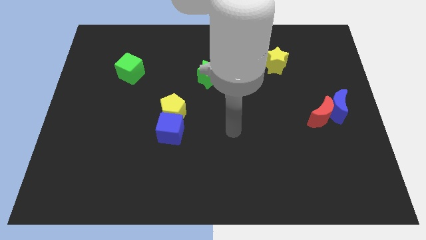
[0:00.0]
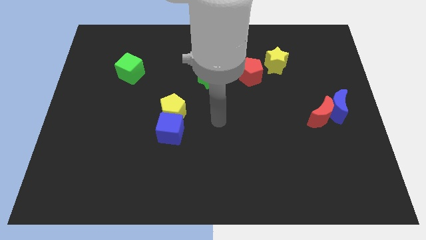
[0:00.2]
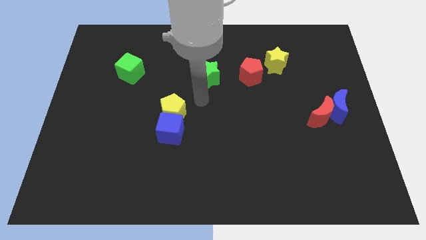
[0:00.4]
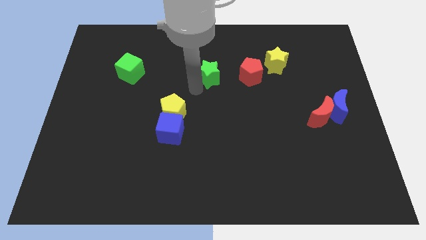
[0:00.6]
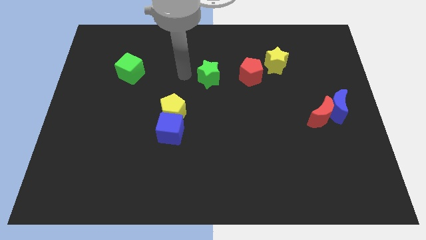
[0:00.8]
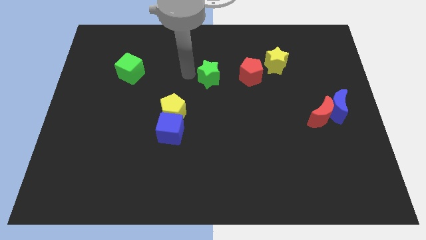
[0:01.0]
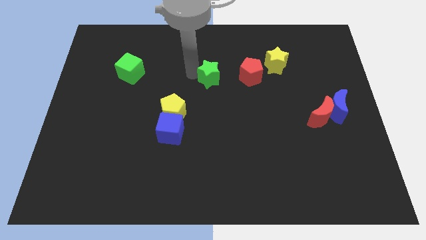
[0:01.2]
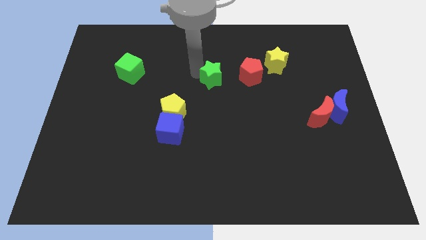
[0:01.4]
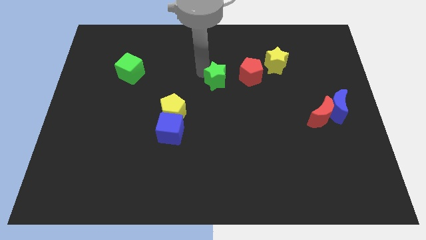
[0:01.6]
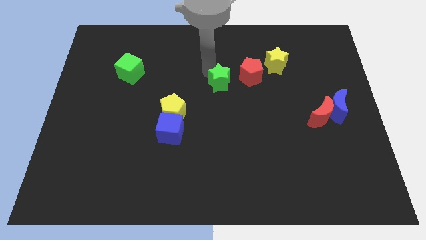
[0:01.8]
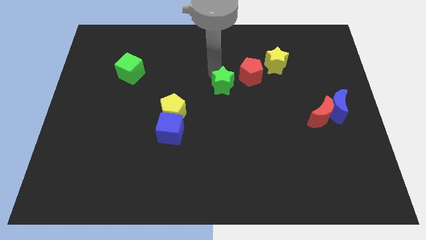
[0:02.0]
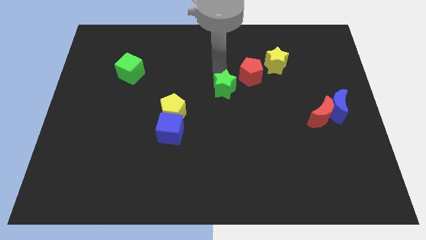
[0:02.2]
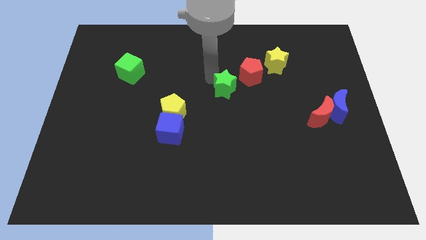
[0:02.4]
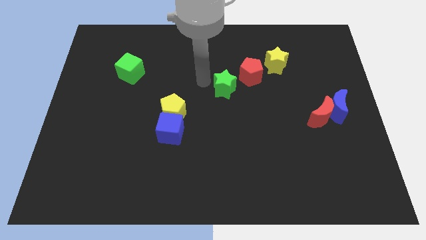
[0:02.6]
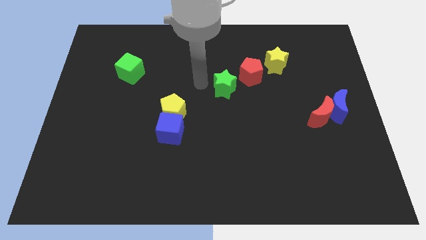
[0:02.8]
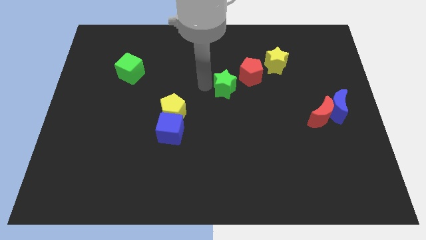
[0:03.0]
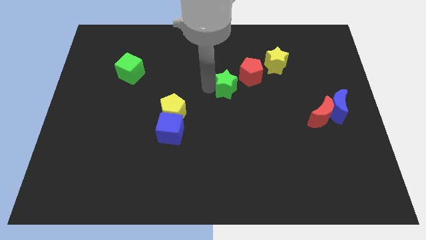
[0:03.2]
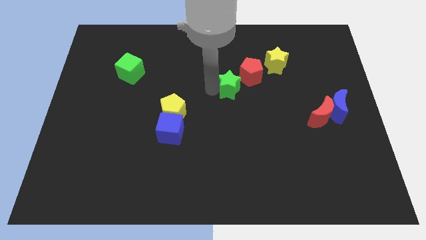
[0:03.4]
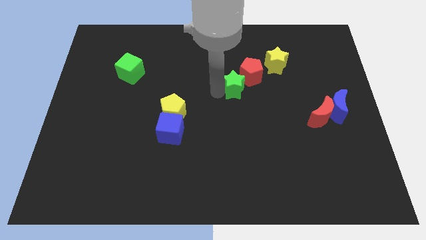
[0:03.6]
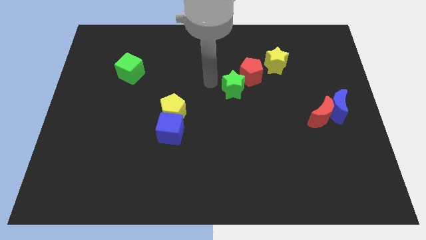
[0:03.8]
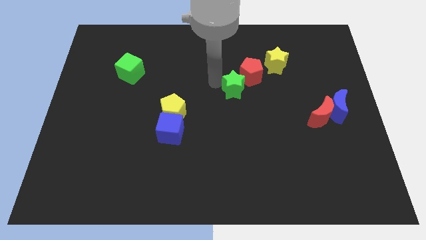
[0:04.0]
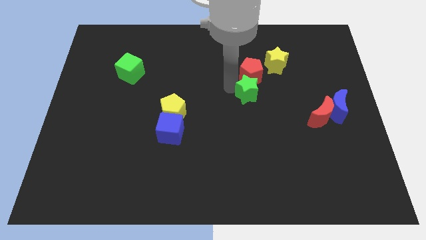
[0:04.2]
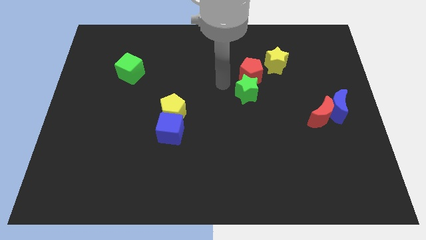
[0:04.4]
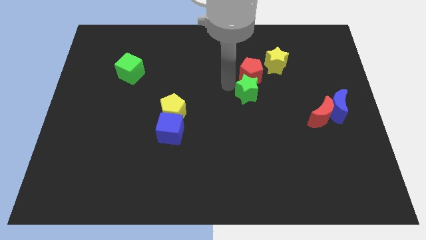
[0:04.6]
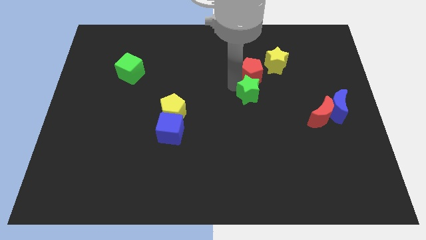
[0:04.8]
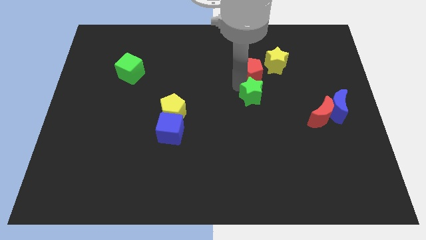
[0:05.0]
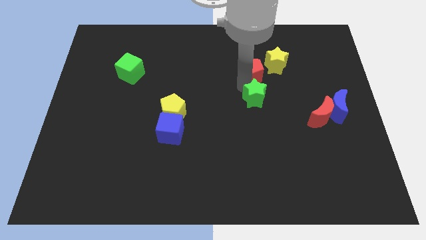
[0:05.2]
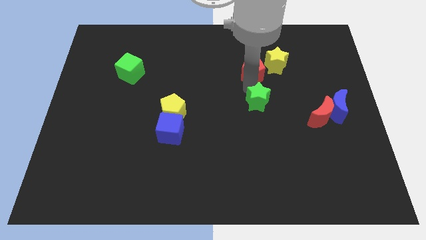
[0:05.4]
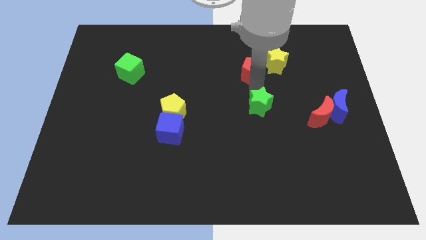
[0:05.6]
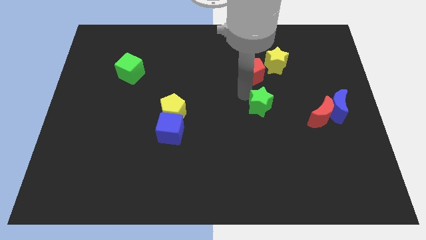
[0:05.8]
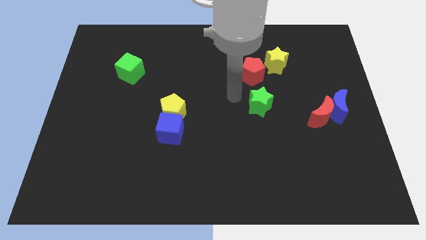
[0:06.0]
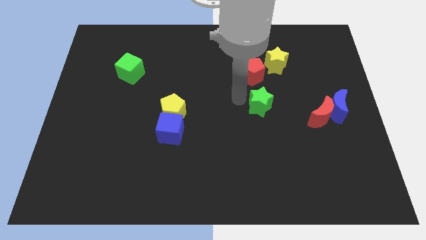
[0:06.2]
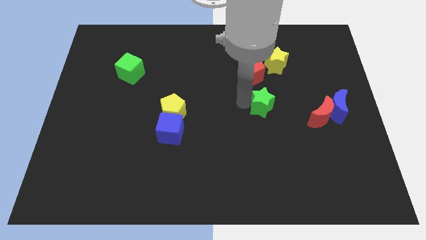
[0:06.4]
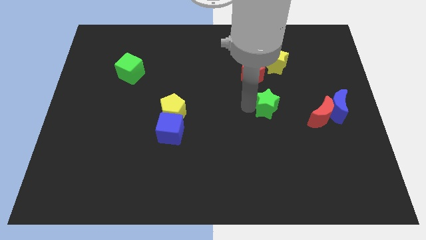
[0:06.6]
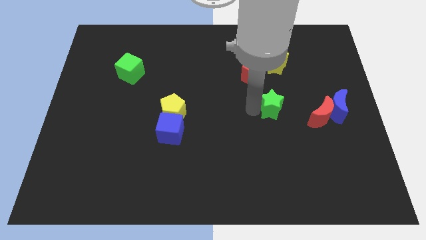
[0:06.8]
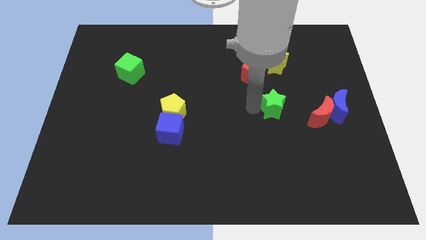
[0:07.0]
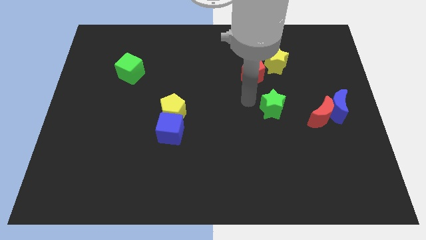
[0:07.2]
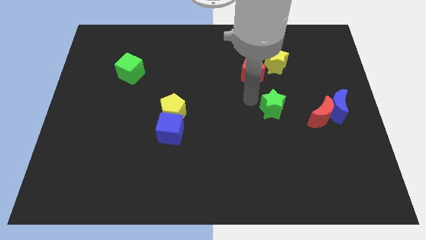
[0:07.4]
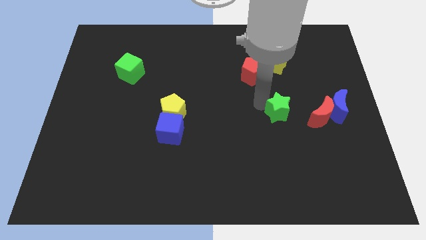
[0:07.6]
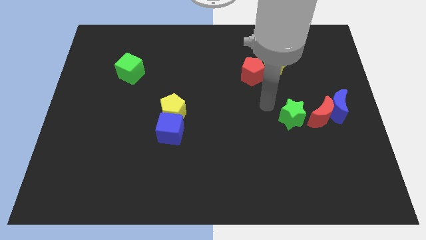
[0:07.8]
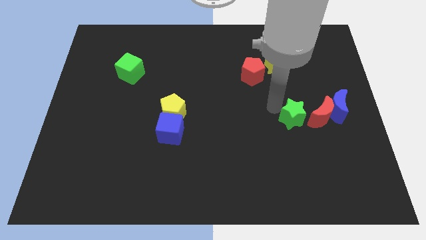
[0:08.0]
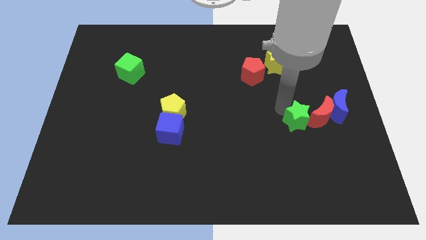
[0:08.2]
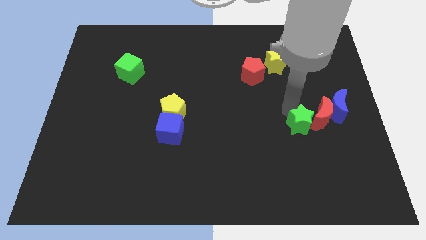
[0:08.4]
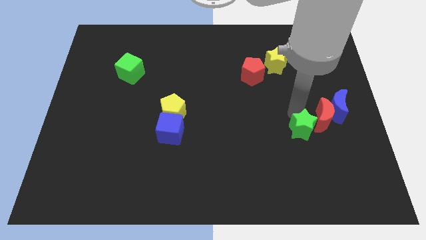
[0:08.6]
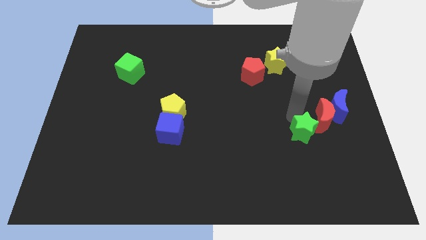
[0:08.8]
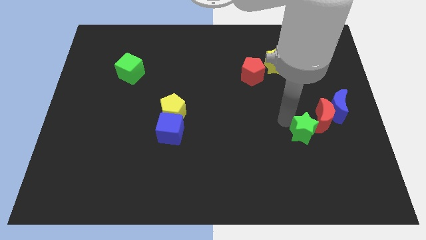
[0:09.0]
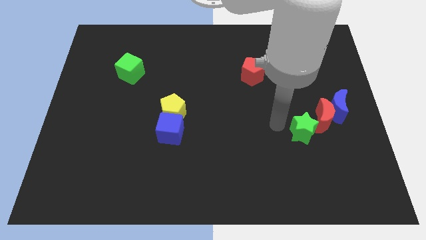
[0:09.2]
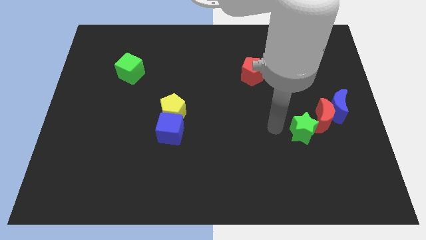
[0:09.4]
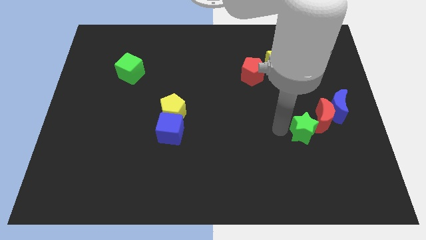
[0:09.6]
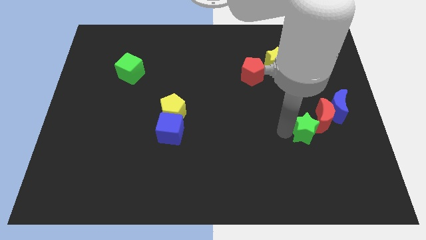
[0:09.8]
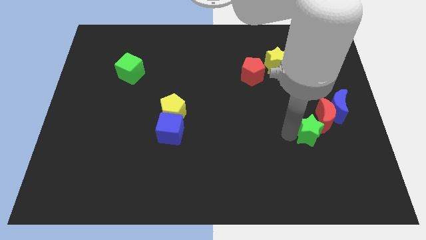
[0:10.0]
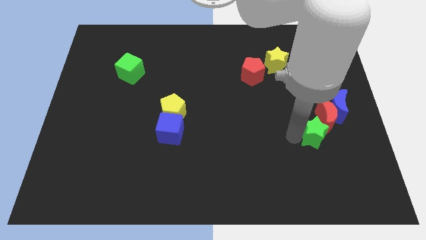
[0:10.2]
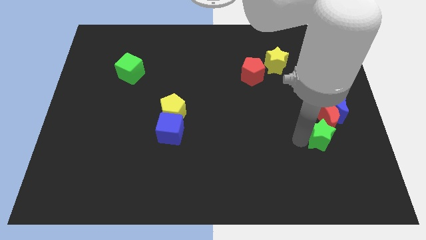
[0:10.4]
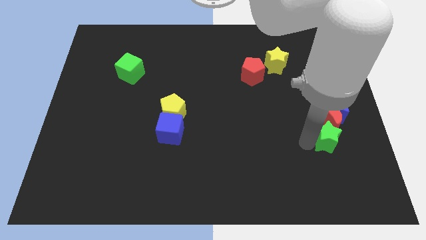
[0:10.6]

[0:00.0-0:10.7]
slide the green star to the bottom of the blue moon

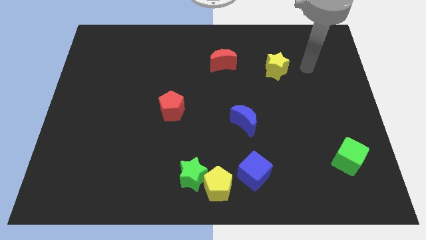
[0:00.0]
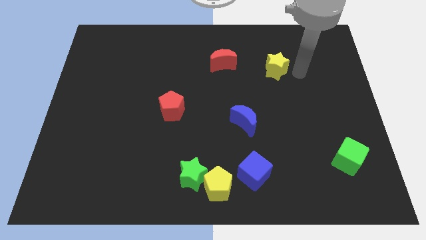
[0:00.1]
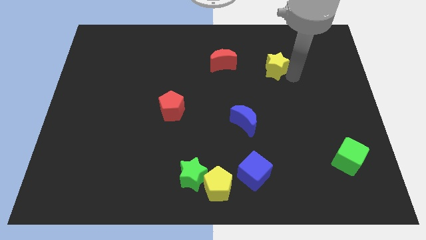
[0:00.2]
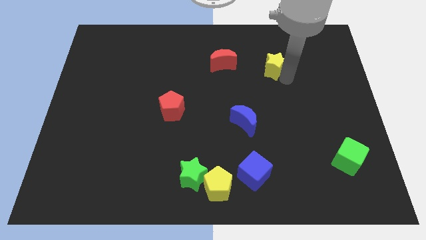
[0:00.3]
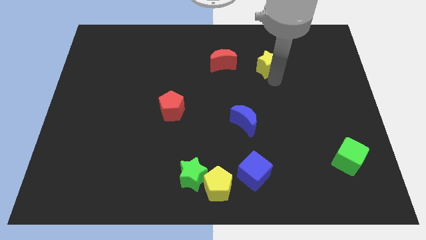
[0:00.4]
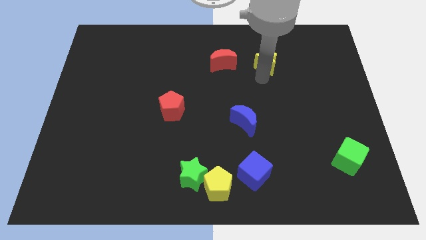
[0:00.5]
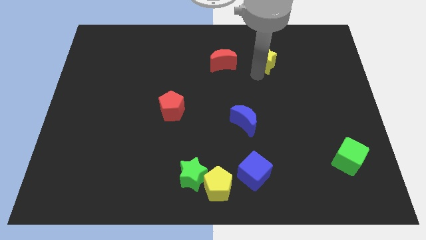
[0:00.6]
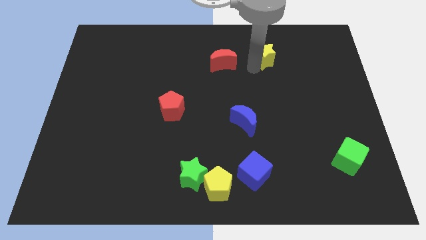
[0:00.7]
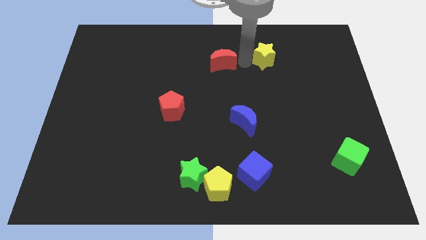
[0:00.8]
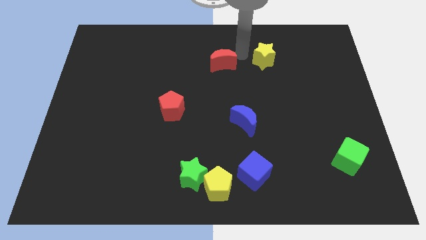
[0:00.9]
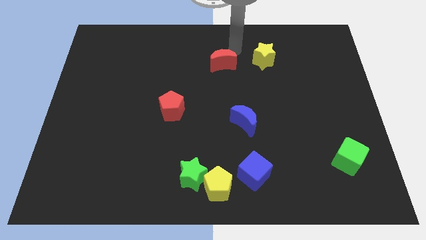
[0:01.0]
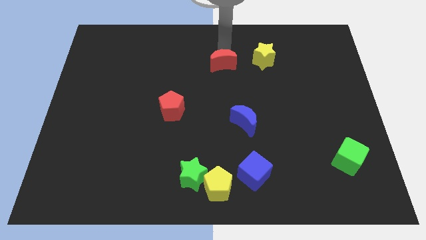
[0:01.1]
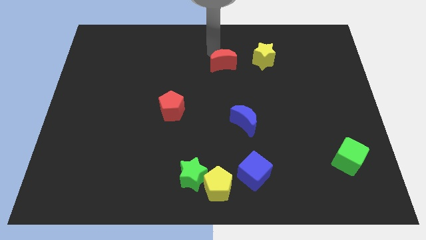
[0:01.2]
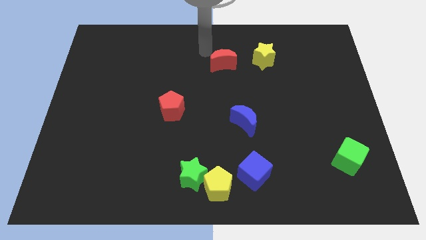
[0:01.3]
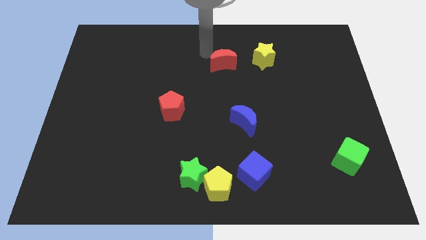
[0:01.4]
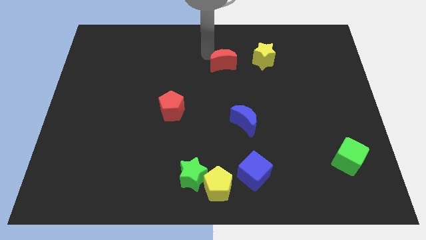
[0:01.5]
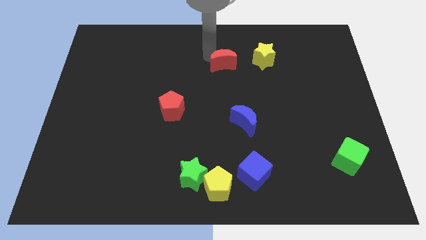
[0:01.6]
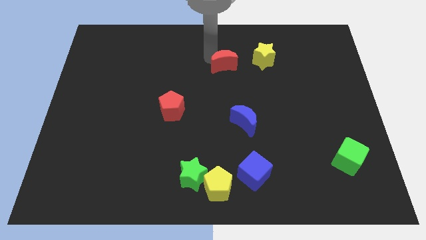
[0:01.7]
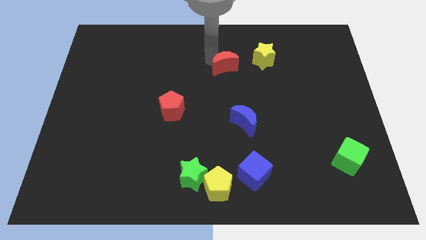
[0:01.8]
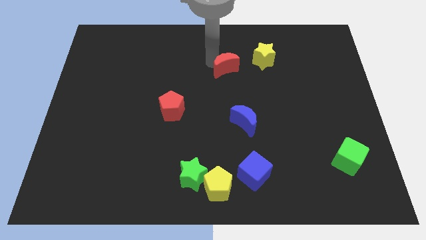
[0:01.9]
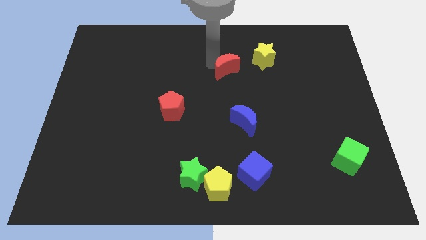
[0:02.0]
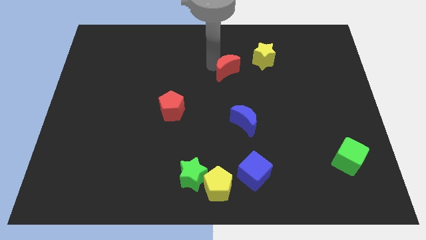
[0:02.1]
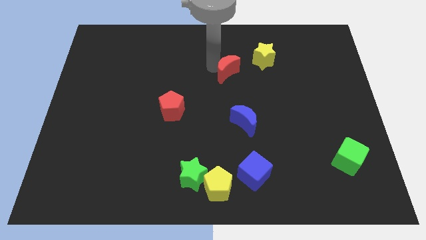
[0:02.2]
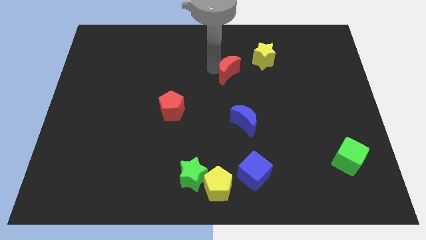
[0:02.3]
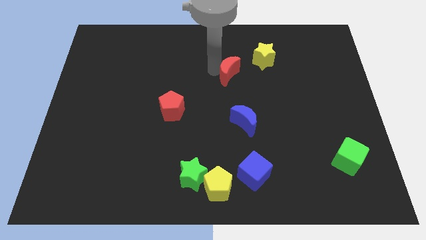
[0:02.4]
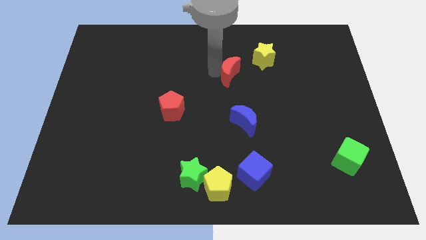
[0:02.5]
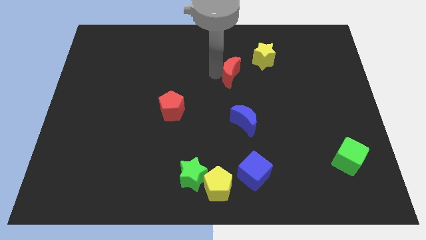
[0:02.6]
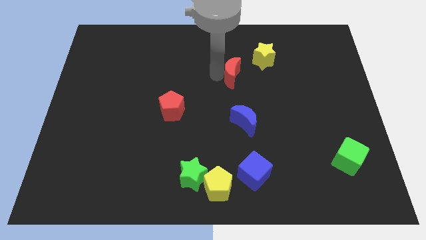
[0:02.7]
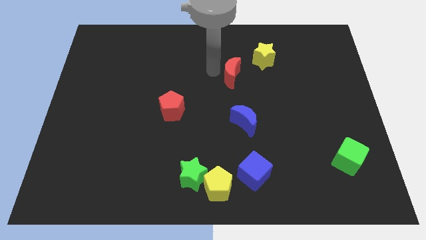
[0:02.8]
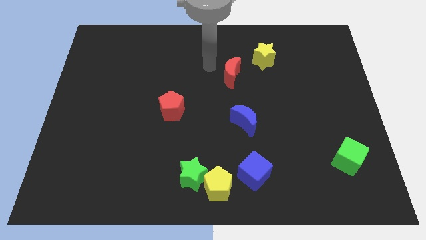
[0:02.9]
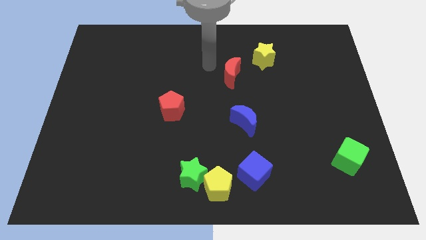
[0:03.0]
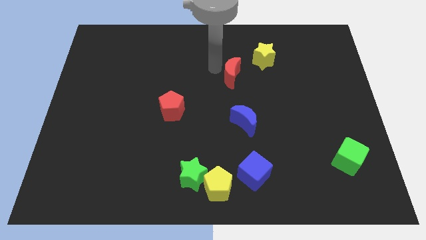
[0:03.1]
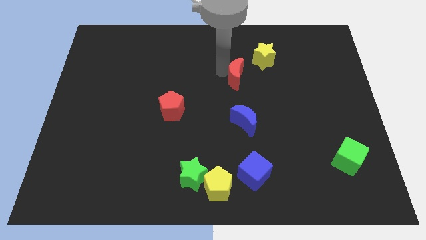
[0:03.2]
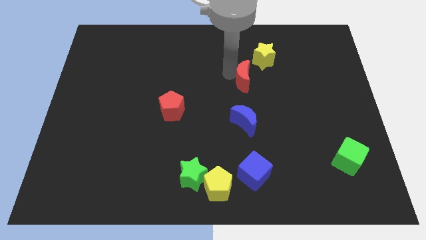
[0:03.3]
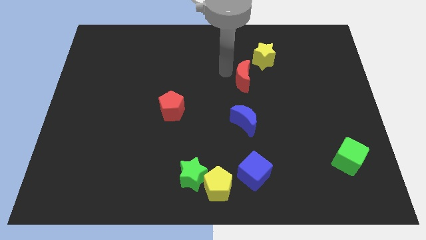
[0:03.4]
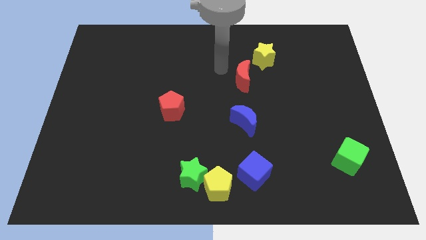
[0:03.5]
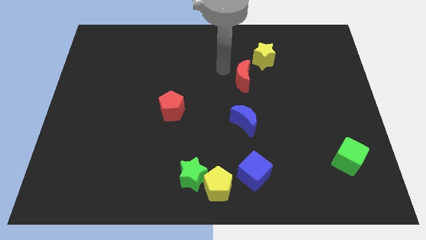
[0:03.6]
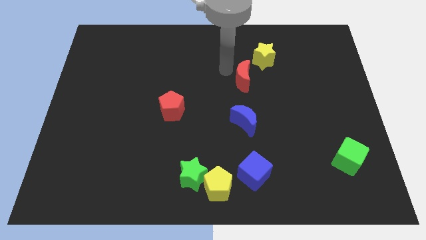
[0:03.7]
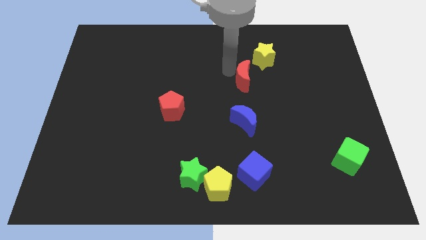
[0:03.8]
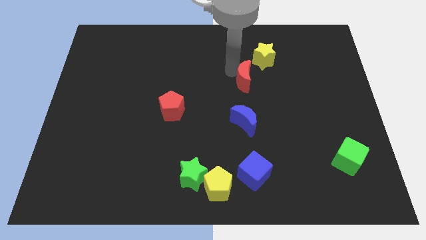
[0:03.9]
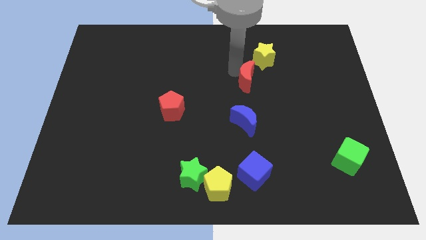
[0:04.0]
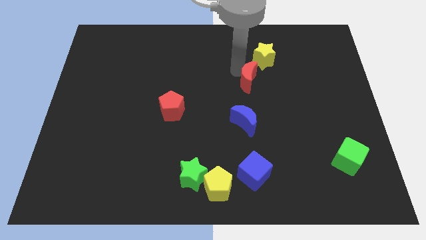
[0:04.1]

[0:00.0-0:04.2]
put the red moon to the bottom side of the yellow star
